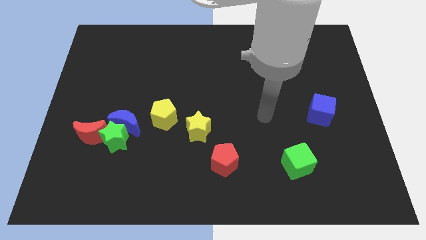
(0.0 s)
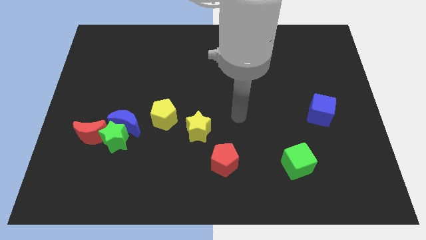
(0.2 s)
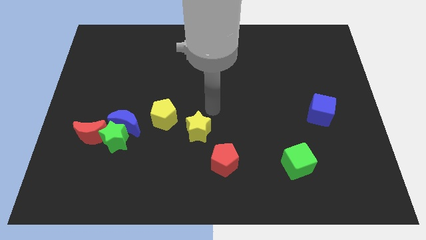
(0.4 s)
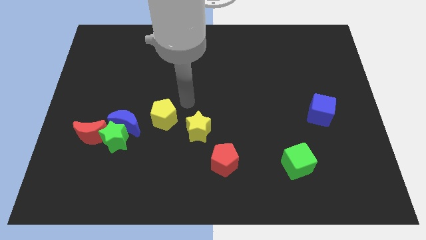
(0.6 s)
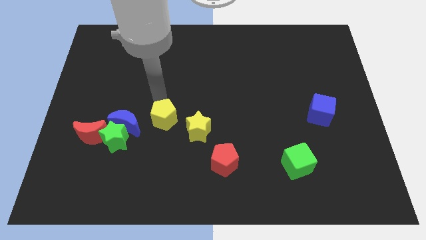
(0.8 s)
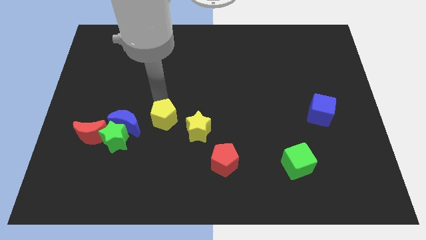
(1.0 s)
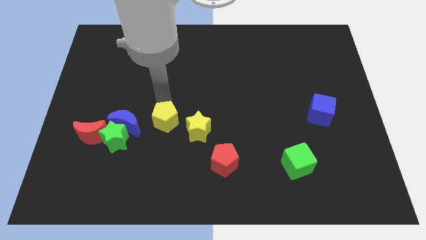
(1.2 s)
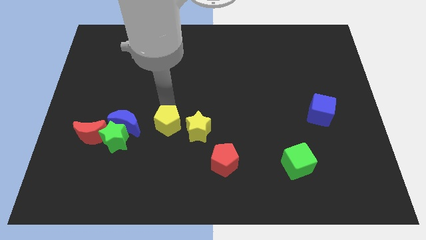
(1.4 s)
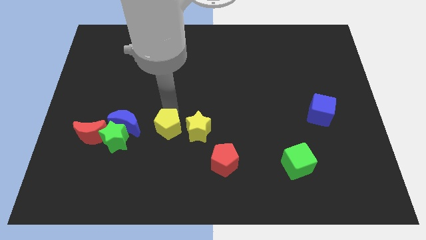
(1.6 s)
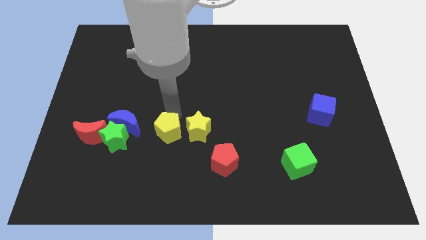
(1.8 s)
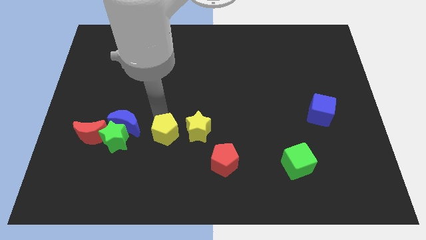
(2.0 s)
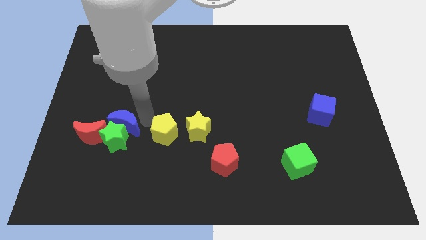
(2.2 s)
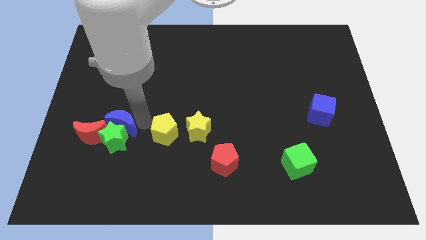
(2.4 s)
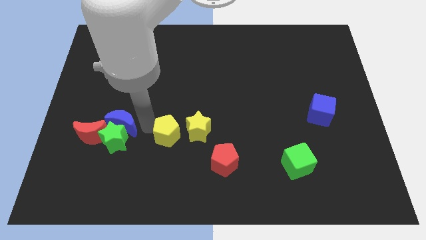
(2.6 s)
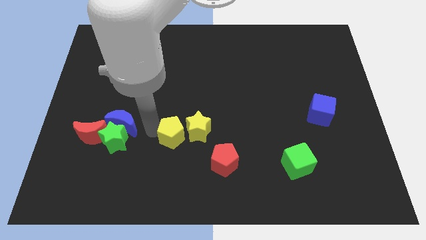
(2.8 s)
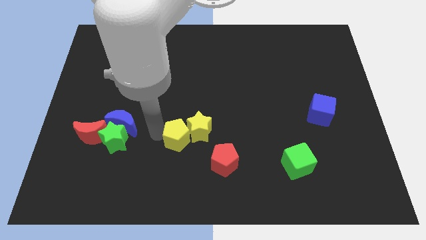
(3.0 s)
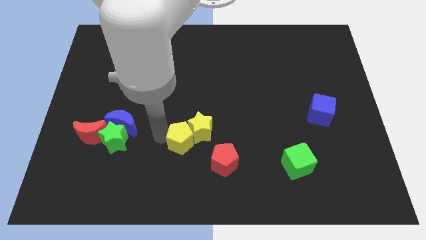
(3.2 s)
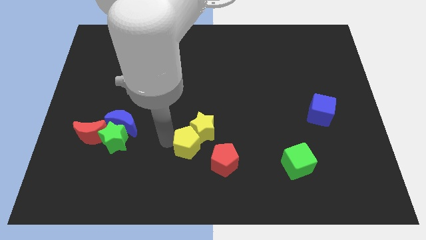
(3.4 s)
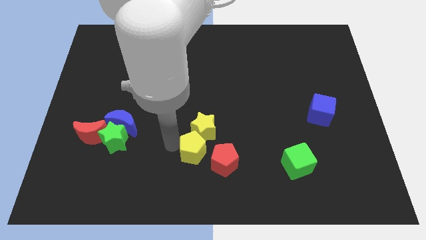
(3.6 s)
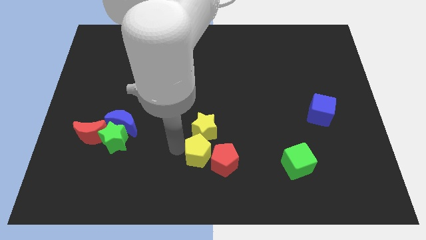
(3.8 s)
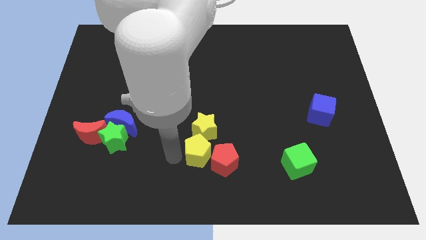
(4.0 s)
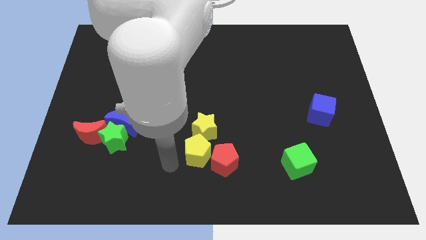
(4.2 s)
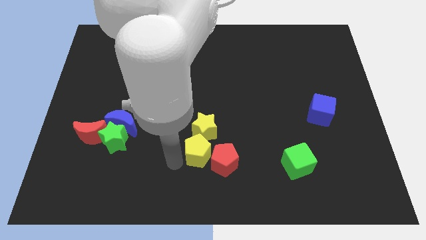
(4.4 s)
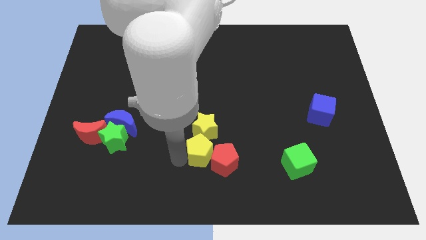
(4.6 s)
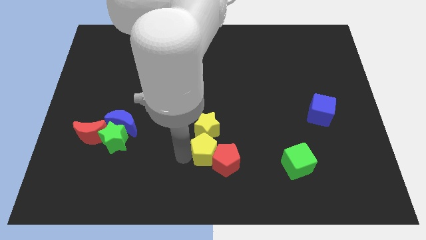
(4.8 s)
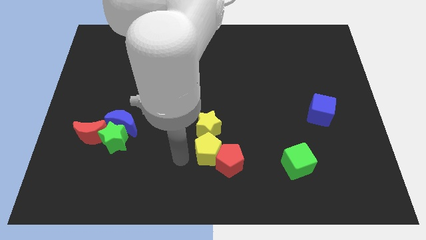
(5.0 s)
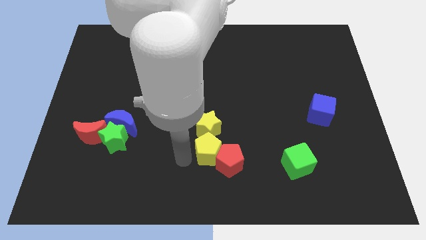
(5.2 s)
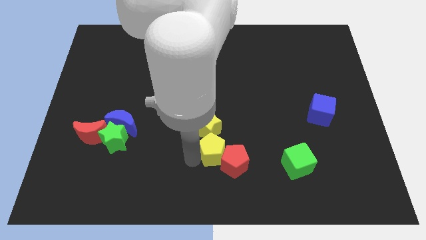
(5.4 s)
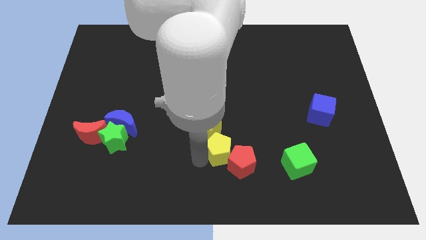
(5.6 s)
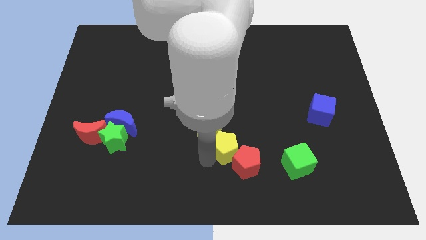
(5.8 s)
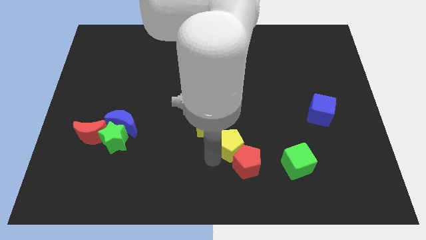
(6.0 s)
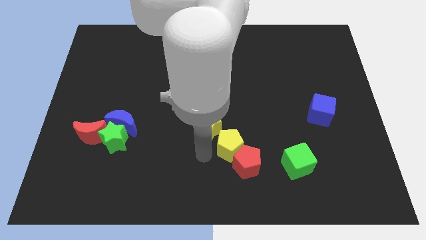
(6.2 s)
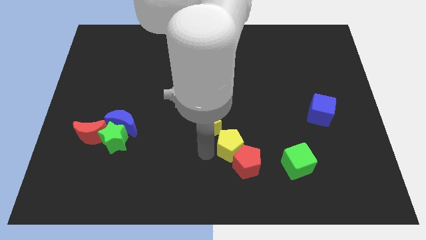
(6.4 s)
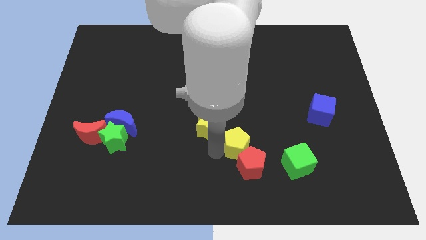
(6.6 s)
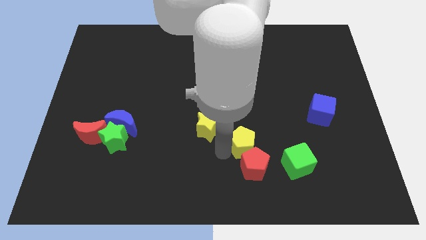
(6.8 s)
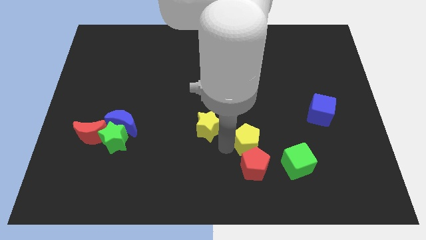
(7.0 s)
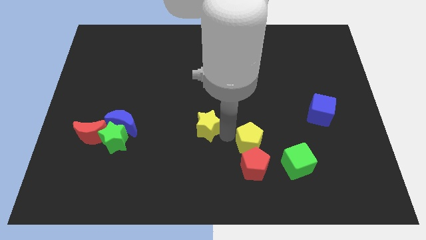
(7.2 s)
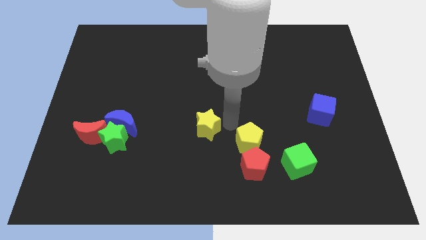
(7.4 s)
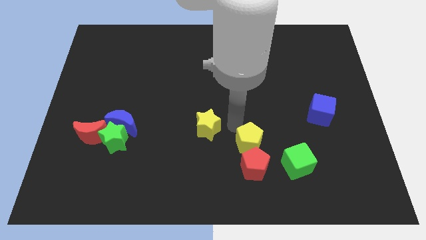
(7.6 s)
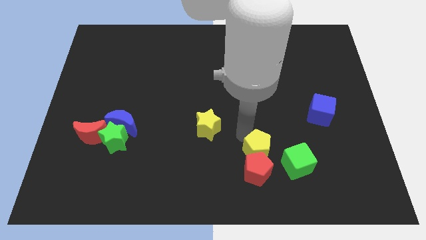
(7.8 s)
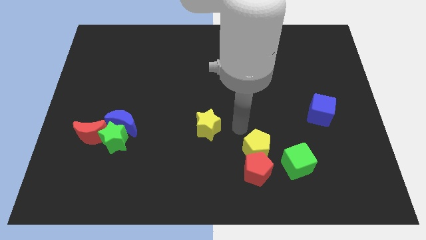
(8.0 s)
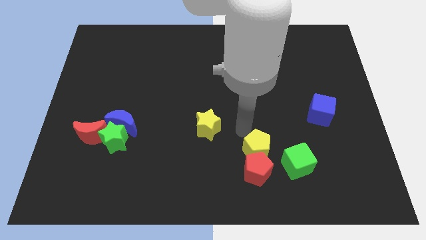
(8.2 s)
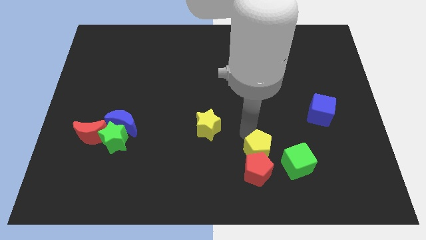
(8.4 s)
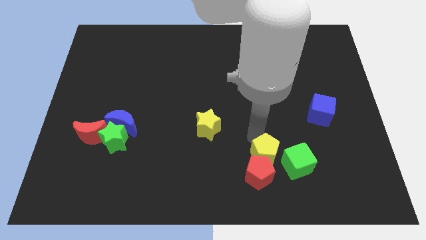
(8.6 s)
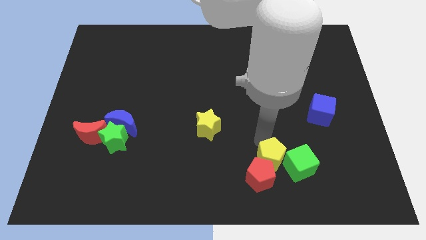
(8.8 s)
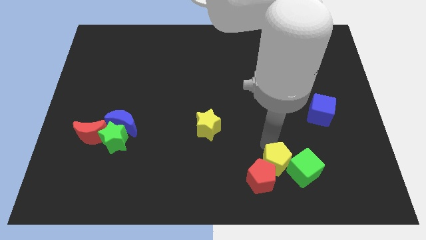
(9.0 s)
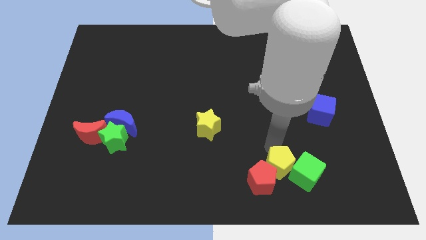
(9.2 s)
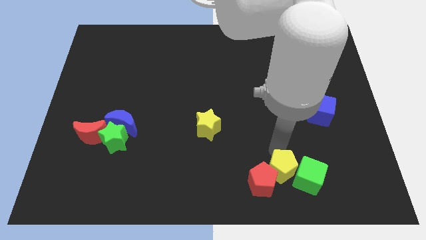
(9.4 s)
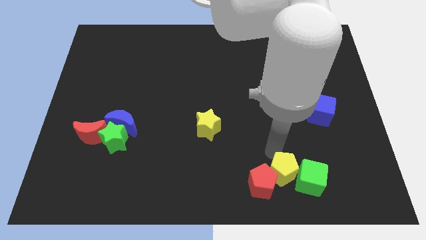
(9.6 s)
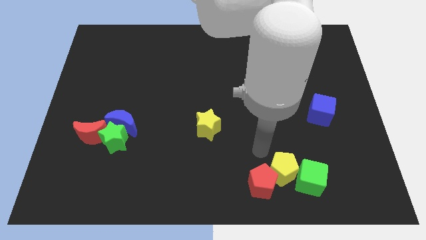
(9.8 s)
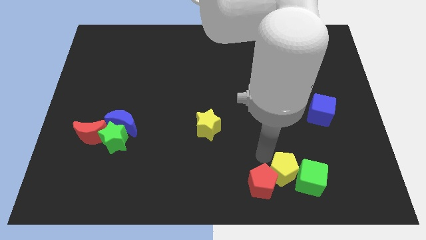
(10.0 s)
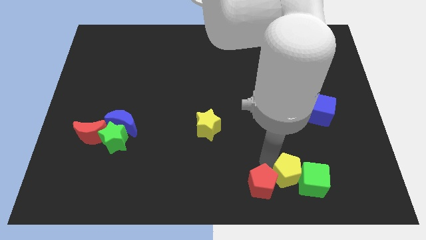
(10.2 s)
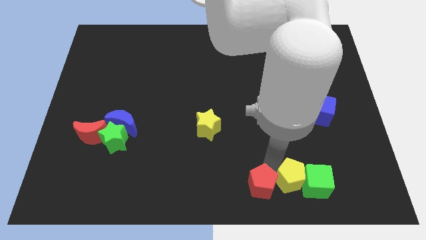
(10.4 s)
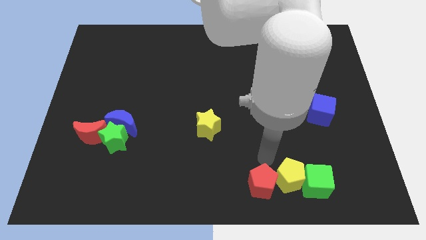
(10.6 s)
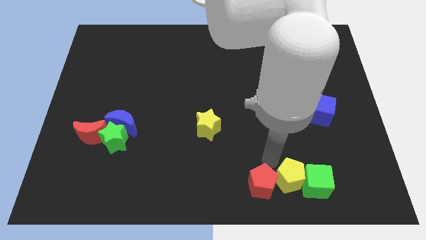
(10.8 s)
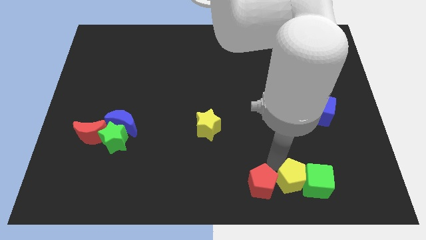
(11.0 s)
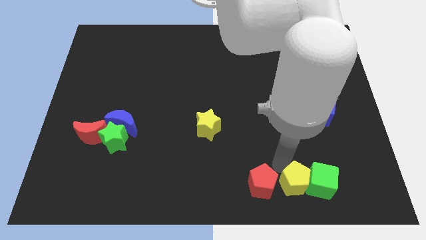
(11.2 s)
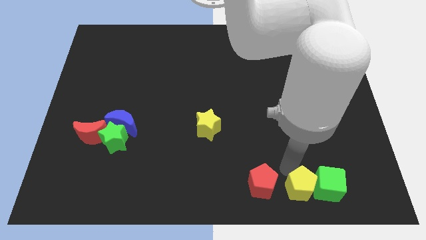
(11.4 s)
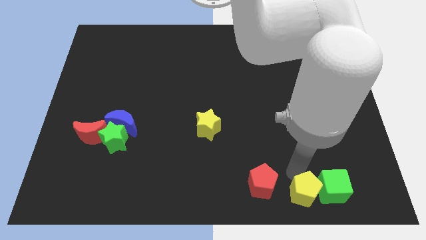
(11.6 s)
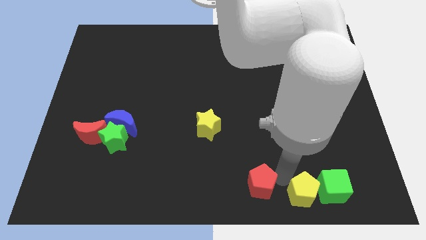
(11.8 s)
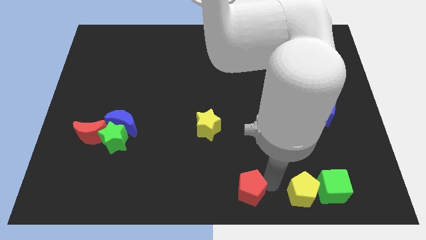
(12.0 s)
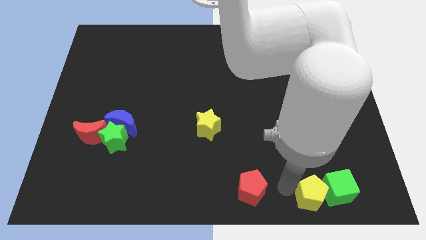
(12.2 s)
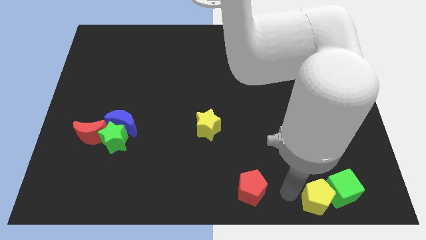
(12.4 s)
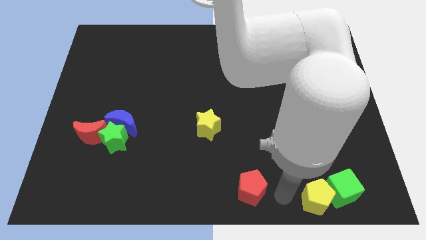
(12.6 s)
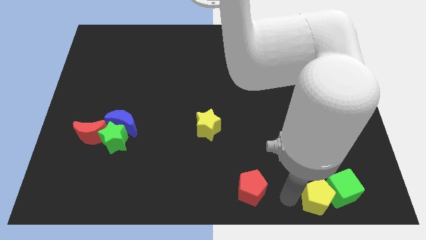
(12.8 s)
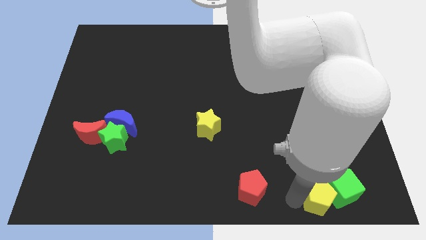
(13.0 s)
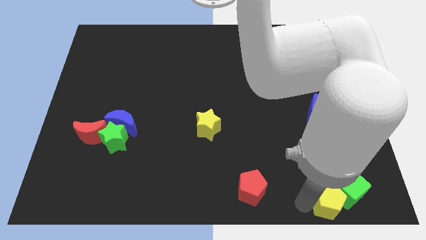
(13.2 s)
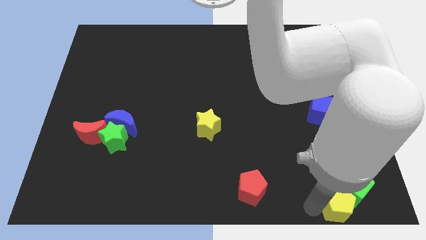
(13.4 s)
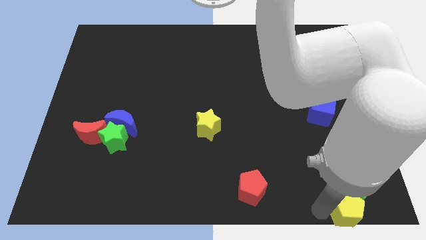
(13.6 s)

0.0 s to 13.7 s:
put the yellow pentagon to the bottom right
